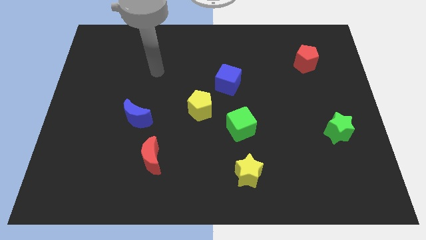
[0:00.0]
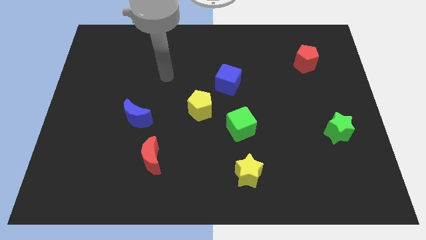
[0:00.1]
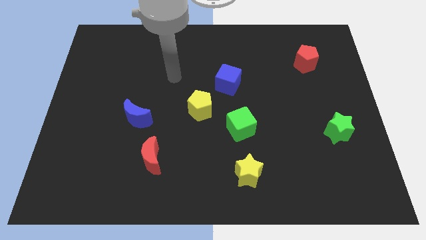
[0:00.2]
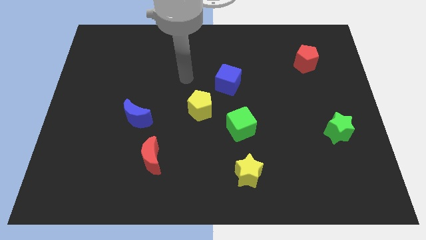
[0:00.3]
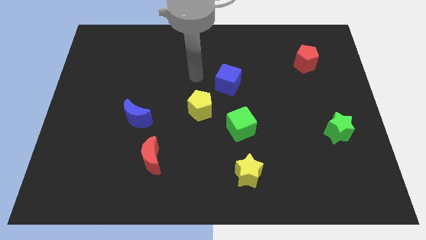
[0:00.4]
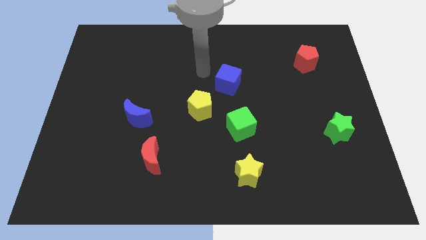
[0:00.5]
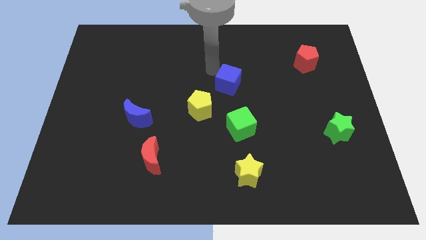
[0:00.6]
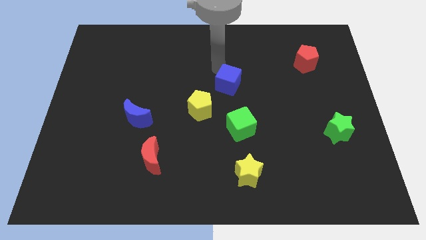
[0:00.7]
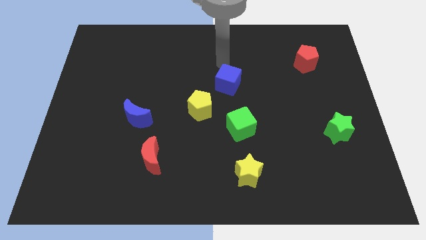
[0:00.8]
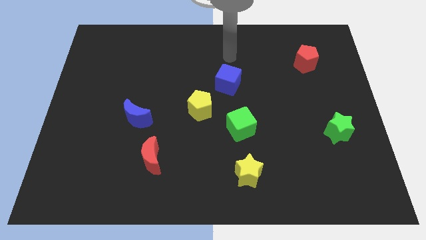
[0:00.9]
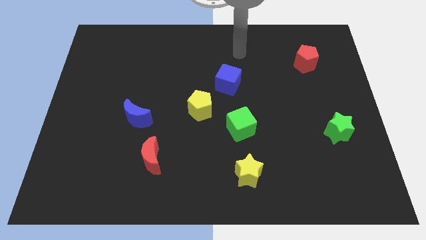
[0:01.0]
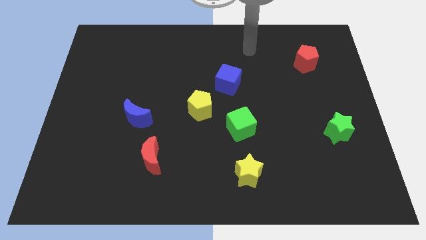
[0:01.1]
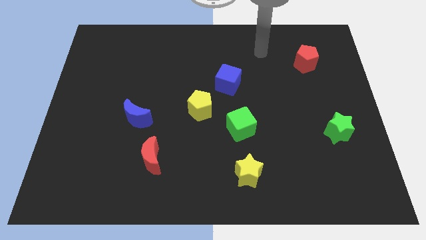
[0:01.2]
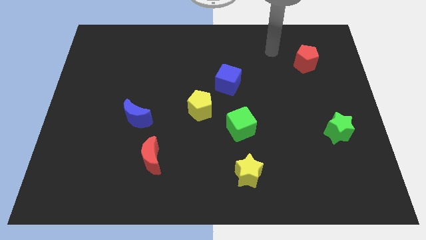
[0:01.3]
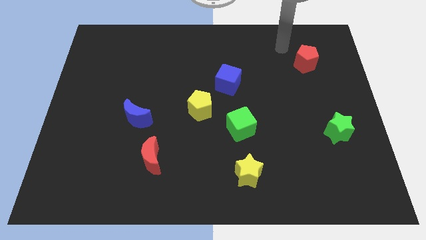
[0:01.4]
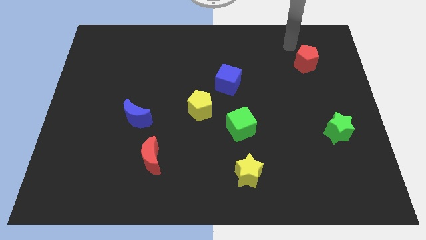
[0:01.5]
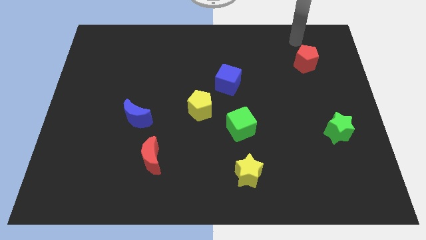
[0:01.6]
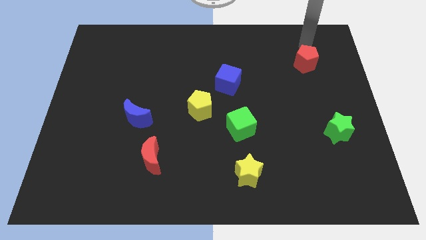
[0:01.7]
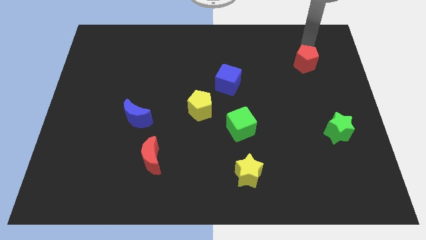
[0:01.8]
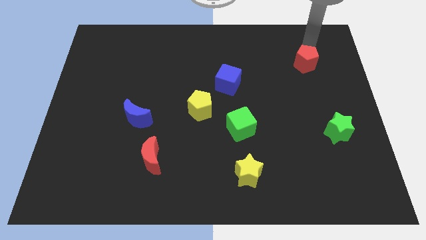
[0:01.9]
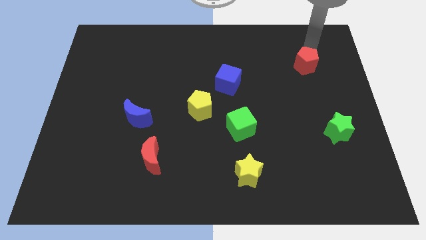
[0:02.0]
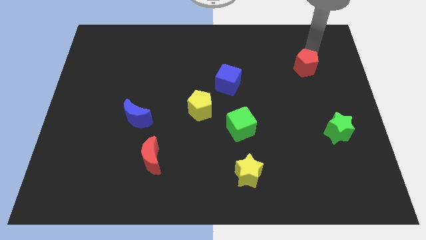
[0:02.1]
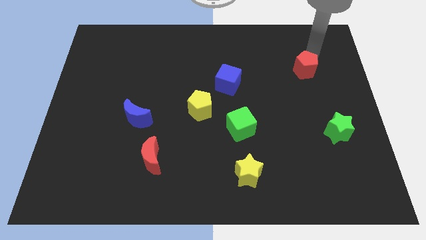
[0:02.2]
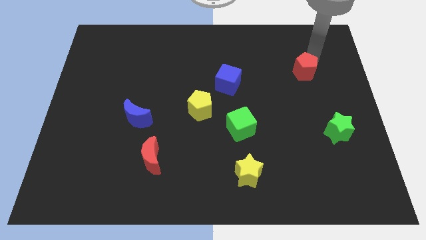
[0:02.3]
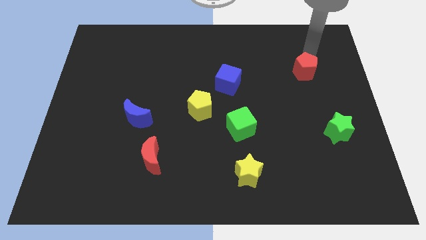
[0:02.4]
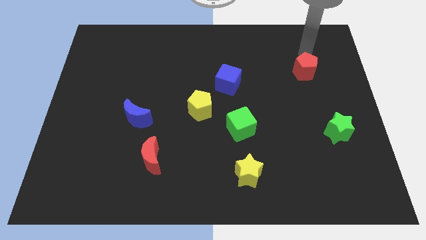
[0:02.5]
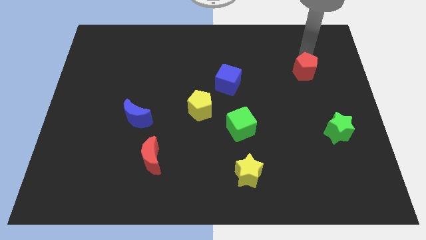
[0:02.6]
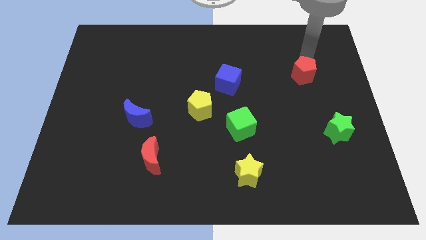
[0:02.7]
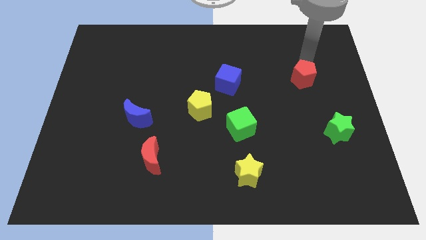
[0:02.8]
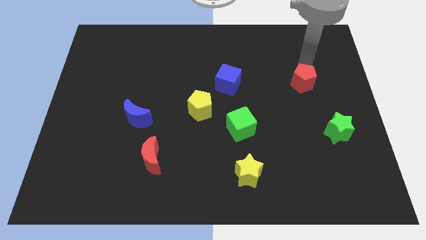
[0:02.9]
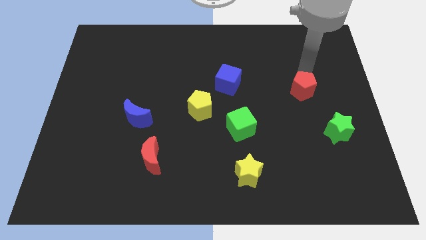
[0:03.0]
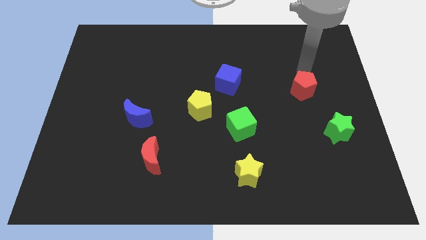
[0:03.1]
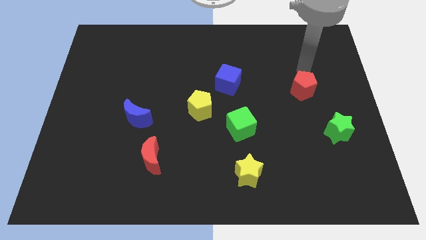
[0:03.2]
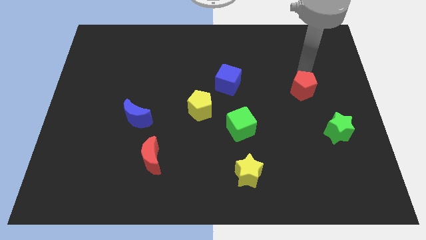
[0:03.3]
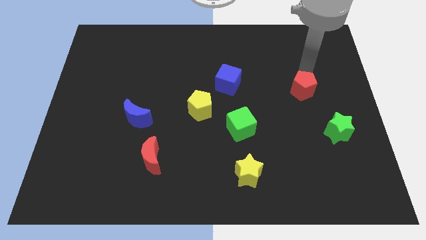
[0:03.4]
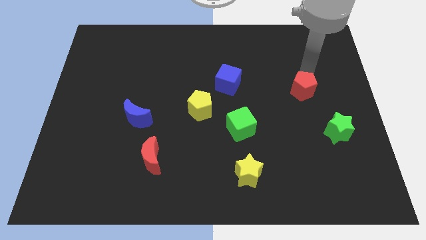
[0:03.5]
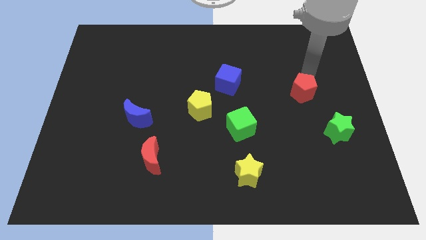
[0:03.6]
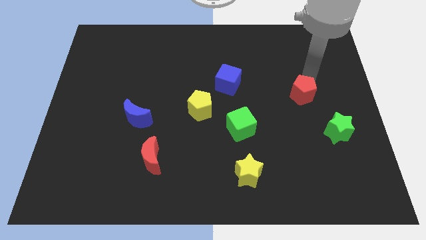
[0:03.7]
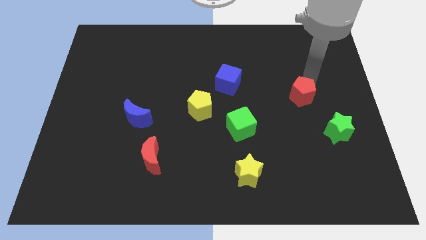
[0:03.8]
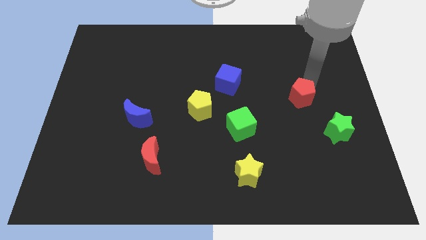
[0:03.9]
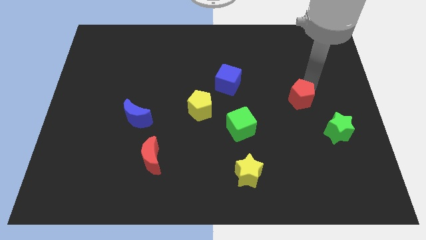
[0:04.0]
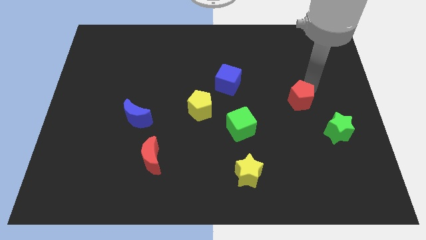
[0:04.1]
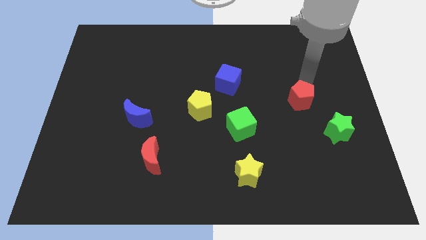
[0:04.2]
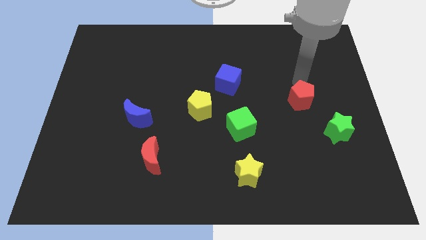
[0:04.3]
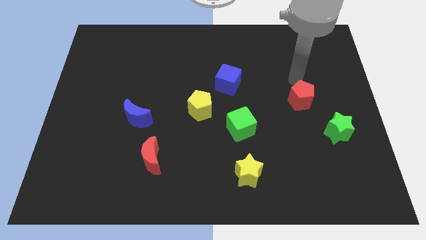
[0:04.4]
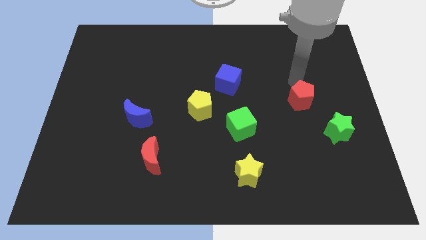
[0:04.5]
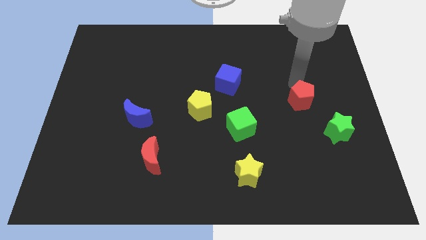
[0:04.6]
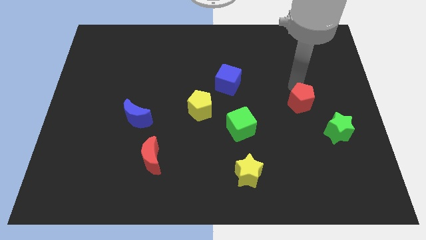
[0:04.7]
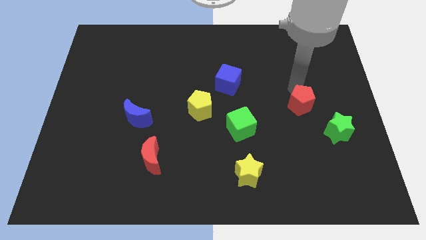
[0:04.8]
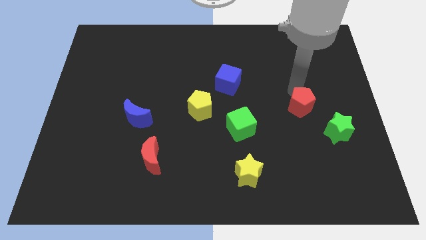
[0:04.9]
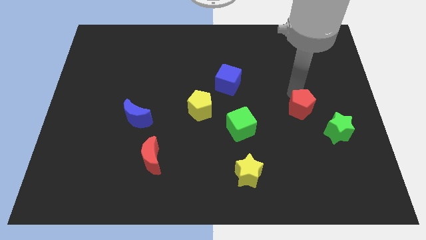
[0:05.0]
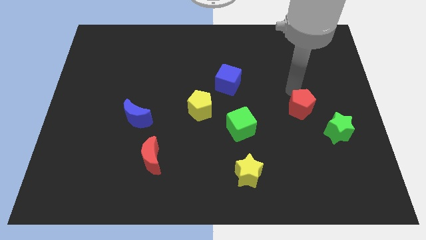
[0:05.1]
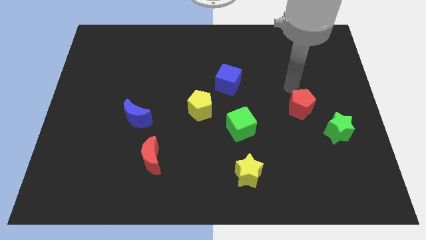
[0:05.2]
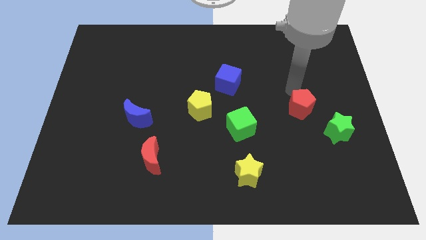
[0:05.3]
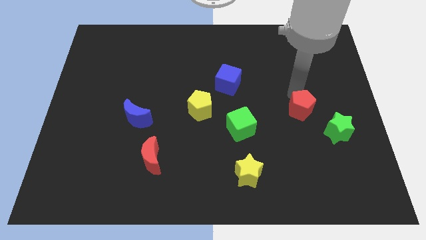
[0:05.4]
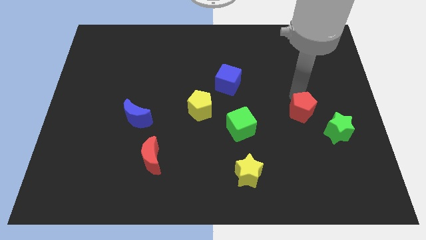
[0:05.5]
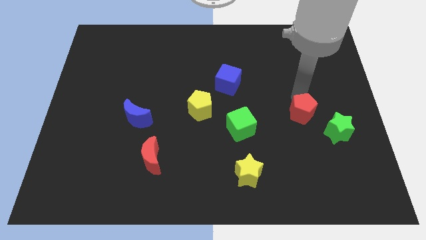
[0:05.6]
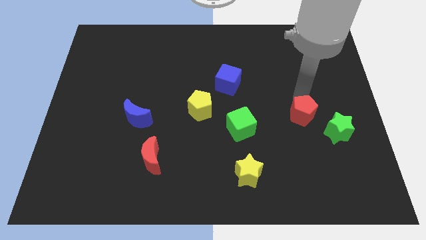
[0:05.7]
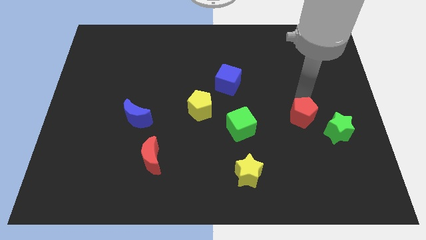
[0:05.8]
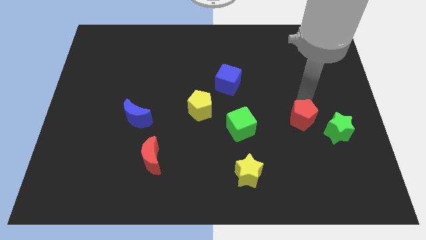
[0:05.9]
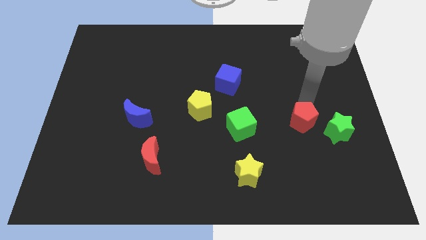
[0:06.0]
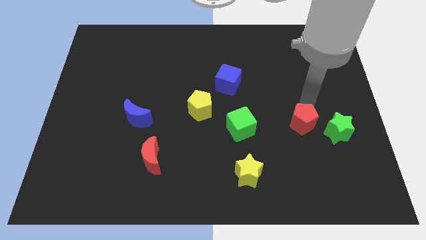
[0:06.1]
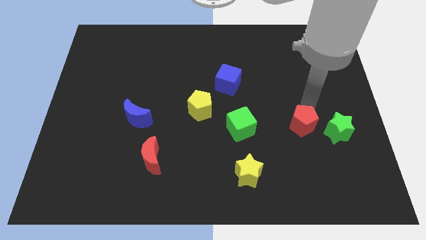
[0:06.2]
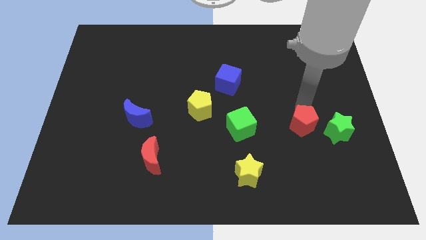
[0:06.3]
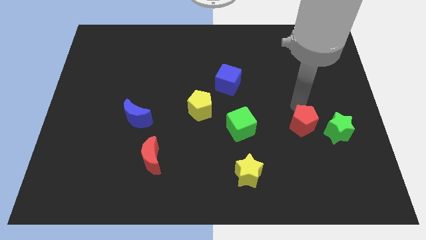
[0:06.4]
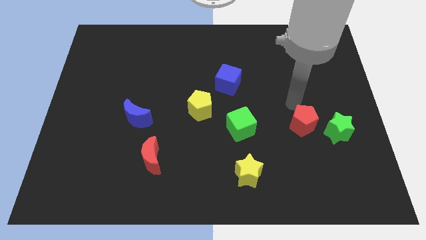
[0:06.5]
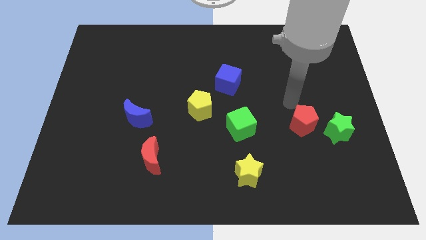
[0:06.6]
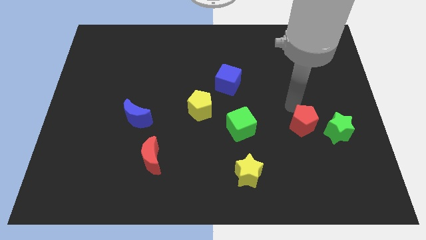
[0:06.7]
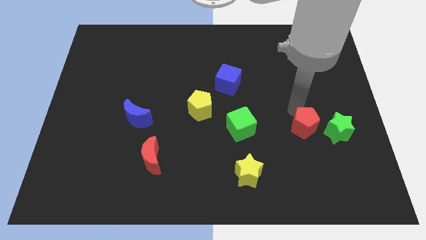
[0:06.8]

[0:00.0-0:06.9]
slide the red pentagon downwards

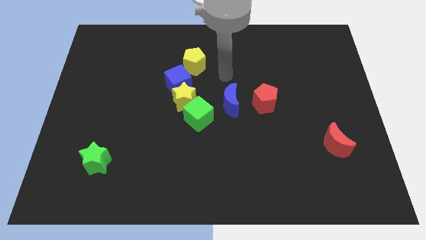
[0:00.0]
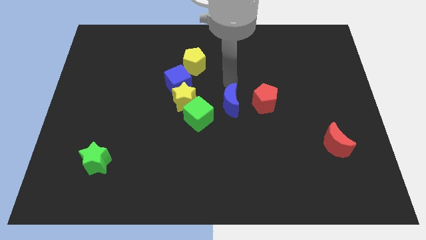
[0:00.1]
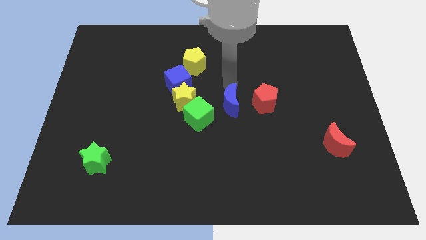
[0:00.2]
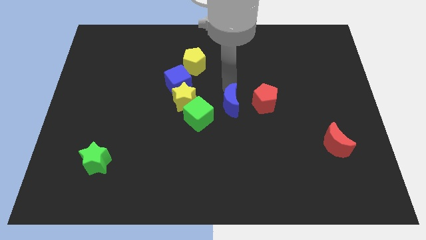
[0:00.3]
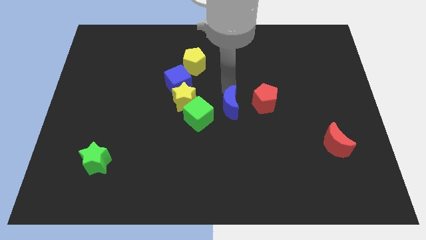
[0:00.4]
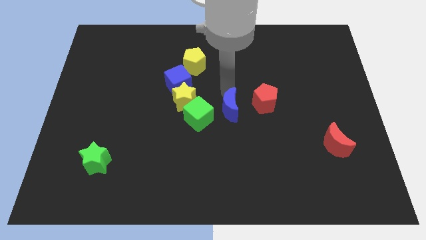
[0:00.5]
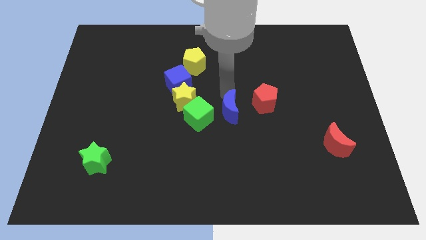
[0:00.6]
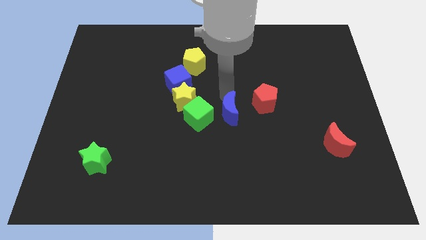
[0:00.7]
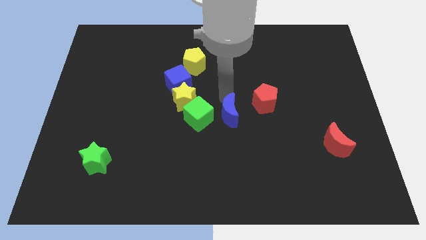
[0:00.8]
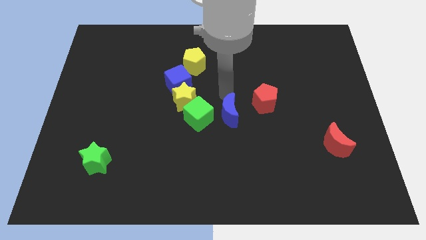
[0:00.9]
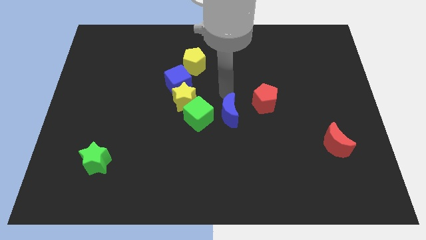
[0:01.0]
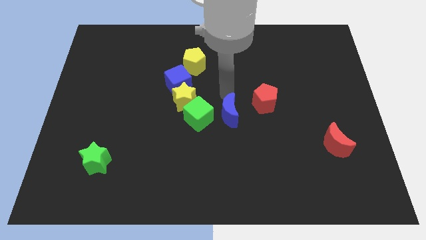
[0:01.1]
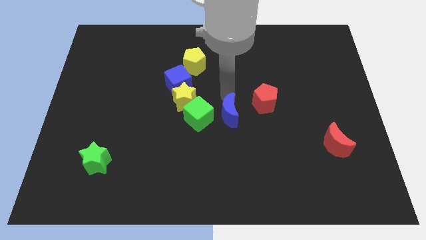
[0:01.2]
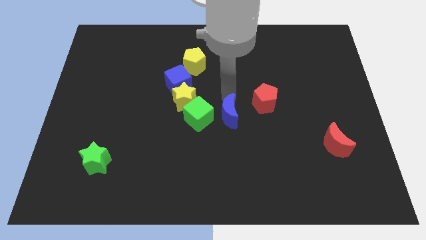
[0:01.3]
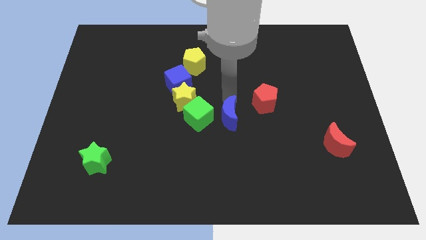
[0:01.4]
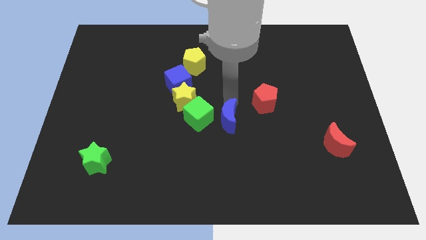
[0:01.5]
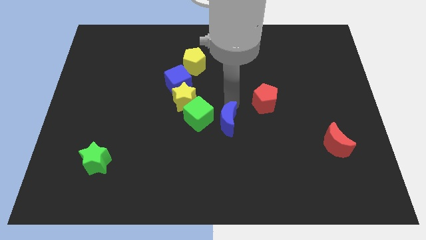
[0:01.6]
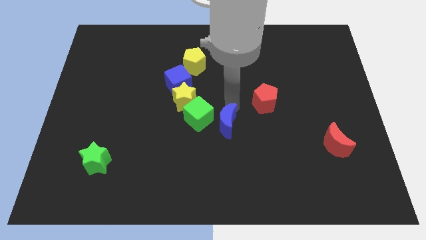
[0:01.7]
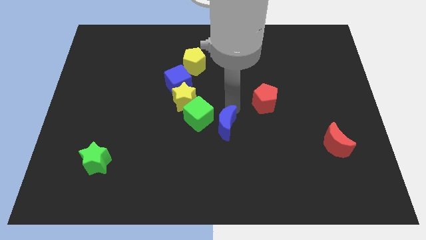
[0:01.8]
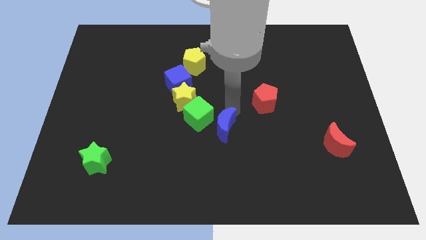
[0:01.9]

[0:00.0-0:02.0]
slightly move the blue moon down
